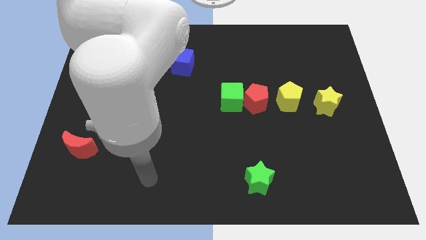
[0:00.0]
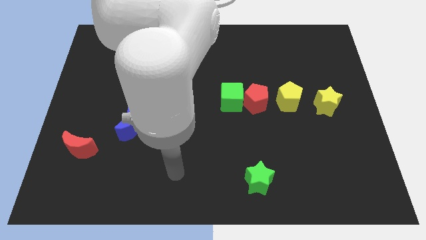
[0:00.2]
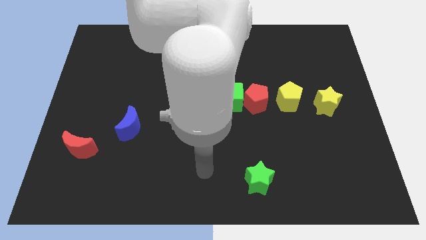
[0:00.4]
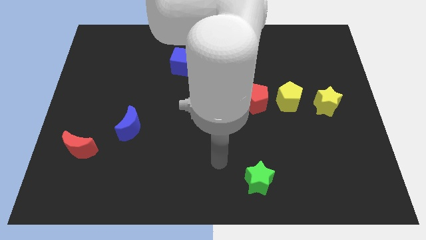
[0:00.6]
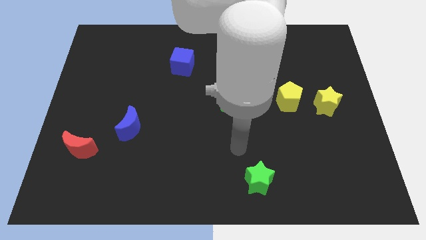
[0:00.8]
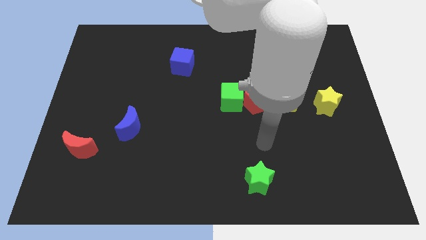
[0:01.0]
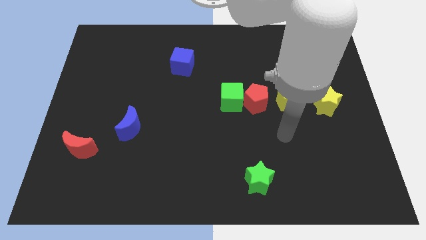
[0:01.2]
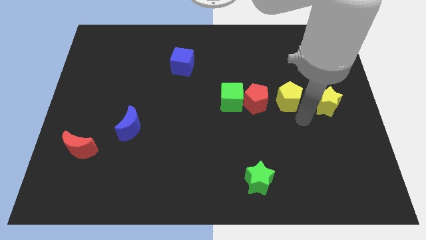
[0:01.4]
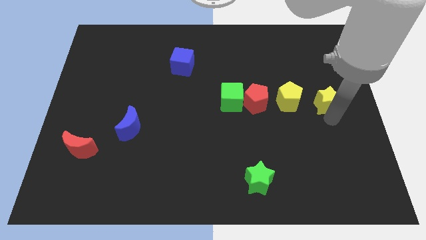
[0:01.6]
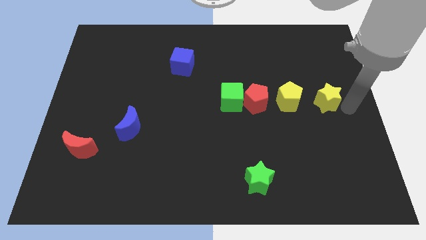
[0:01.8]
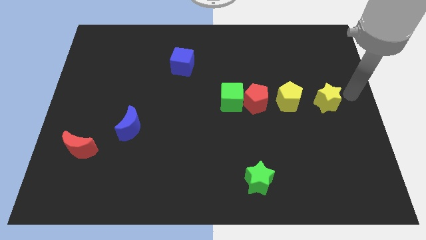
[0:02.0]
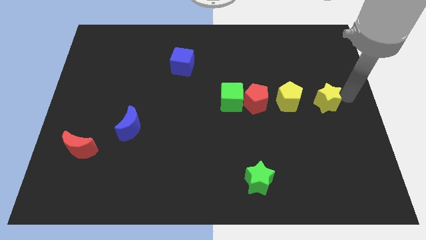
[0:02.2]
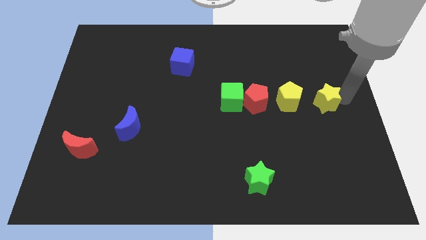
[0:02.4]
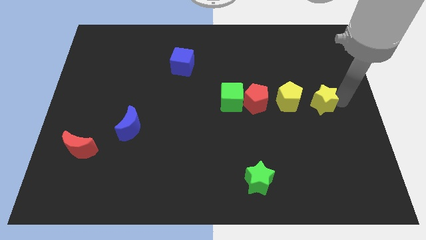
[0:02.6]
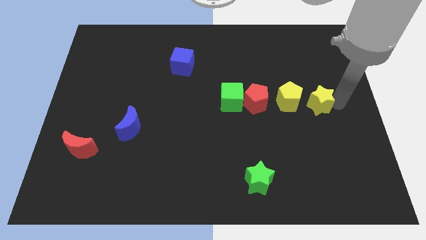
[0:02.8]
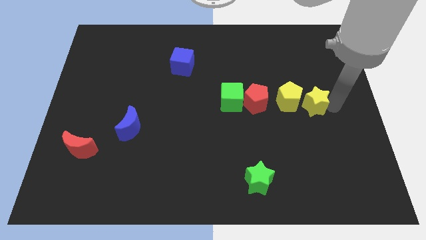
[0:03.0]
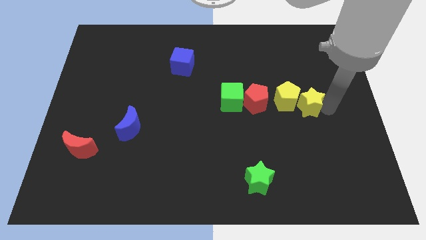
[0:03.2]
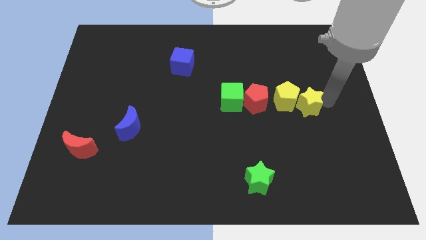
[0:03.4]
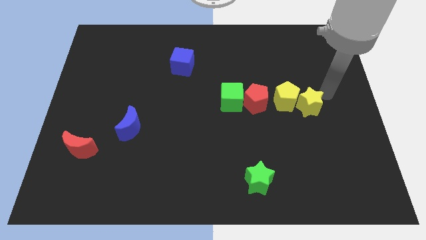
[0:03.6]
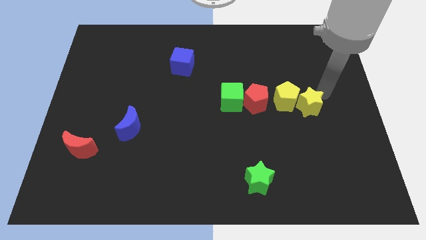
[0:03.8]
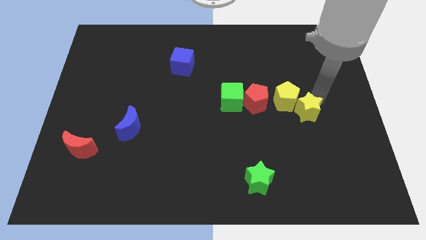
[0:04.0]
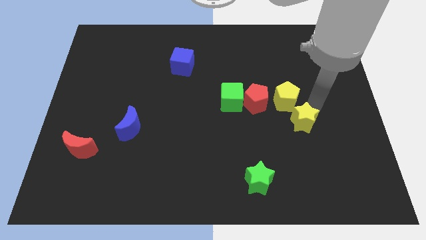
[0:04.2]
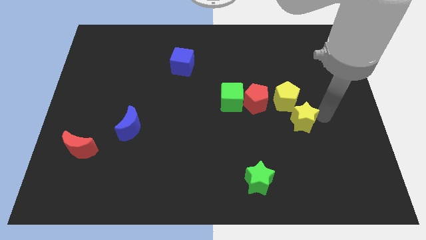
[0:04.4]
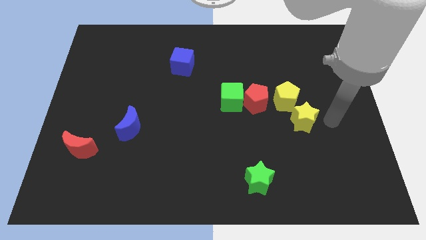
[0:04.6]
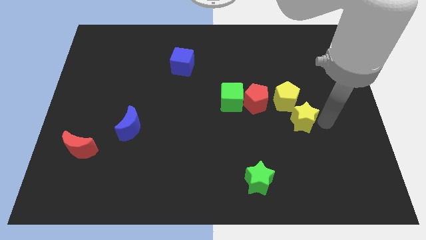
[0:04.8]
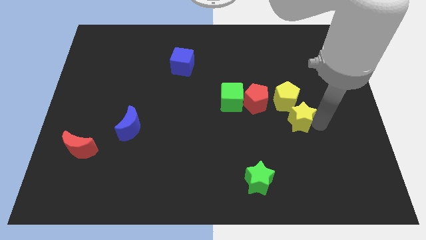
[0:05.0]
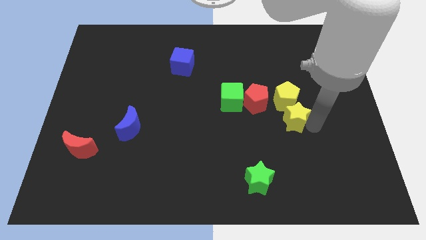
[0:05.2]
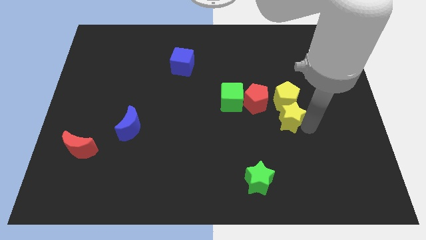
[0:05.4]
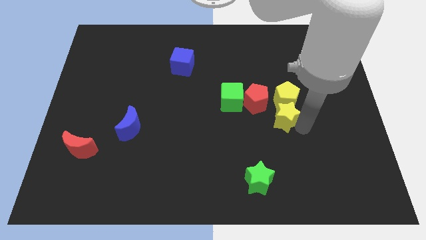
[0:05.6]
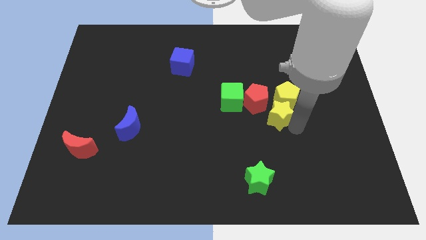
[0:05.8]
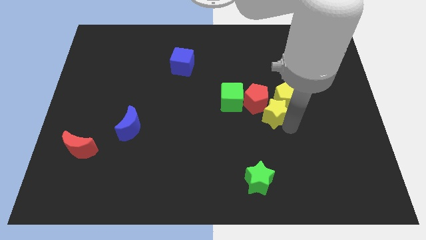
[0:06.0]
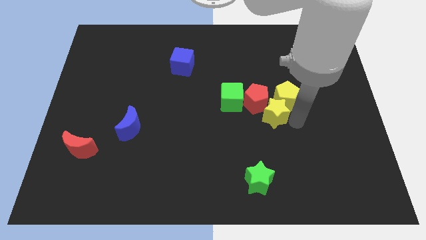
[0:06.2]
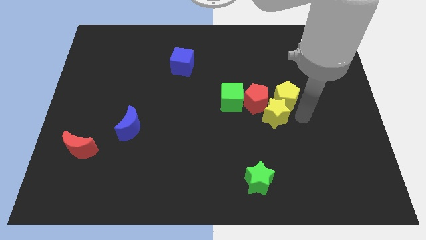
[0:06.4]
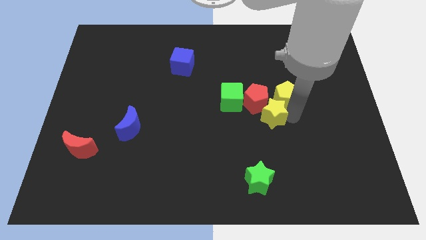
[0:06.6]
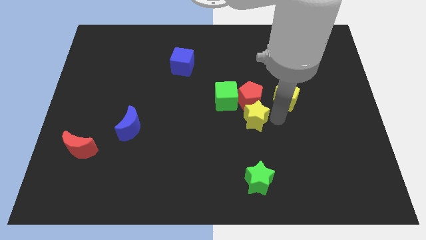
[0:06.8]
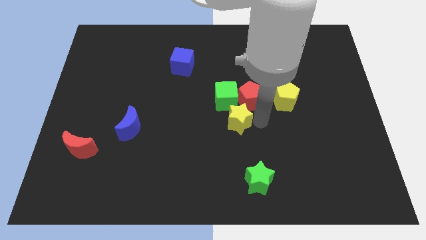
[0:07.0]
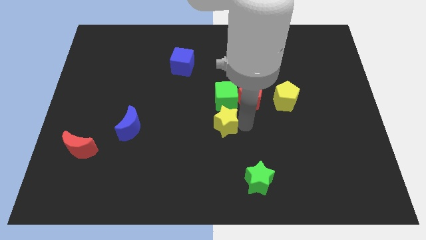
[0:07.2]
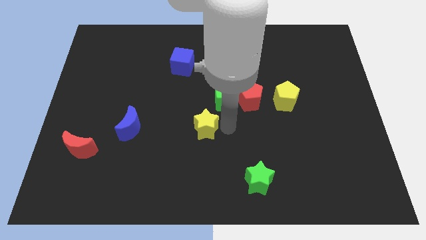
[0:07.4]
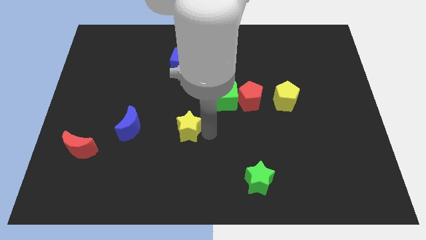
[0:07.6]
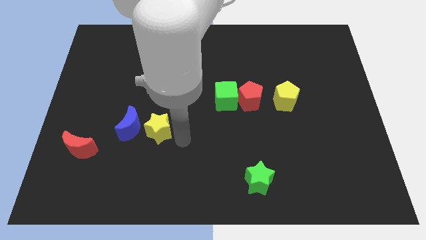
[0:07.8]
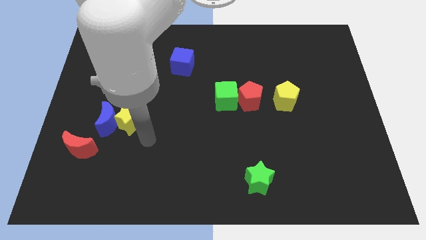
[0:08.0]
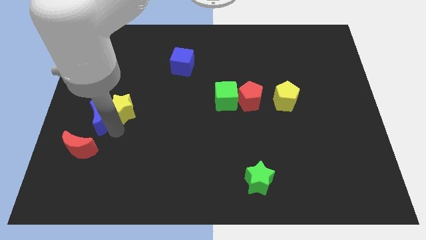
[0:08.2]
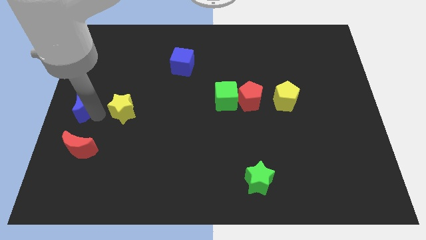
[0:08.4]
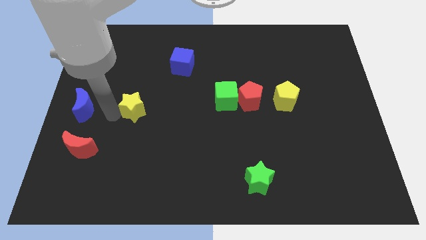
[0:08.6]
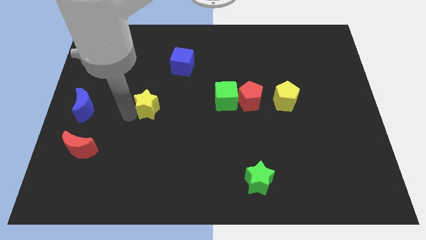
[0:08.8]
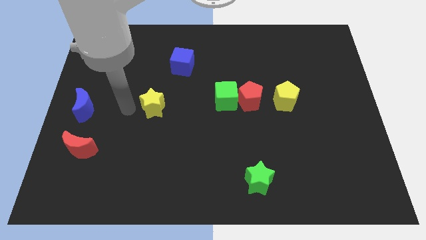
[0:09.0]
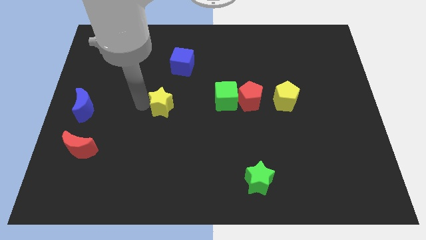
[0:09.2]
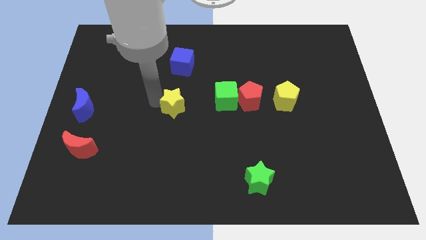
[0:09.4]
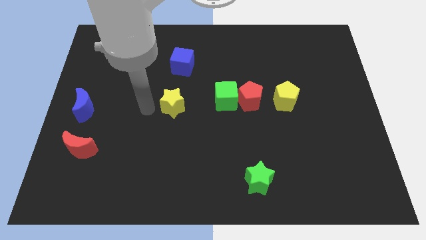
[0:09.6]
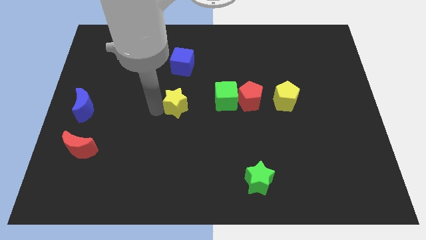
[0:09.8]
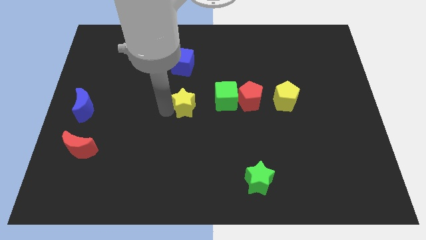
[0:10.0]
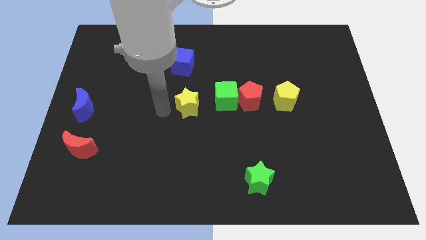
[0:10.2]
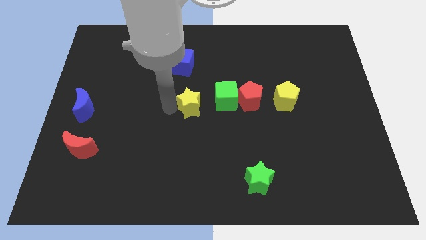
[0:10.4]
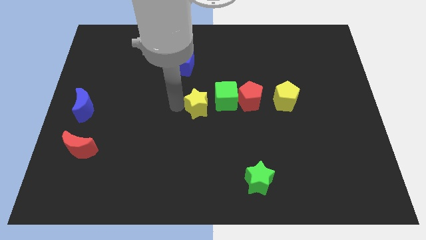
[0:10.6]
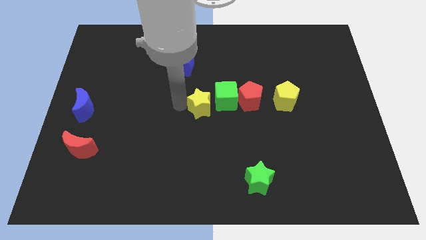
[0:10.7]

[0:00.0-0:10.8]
move the yellow star next to the green cube

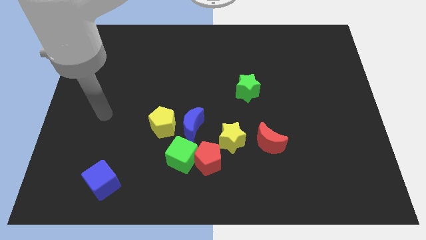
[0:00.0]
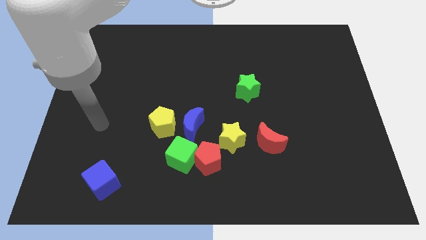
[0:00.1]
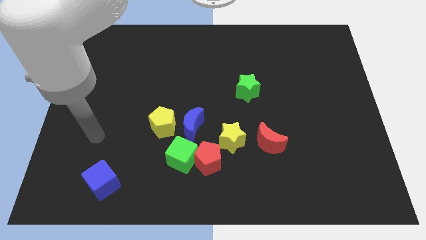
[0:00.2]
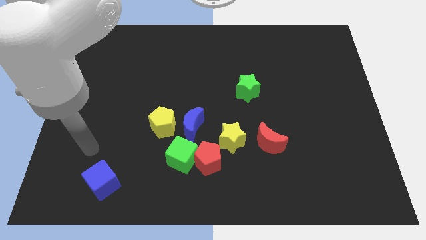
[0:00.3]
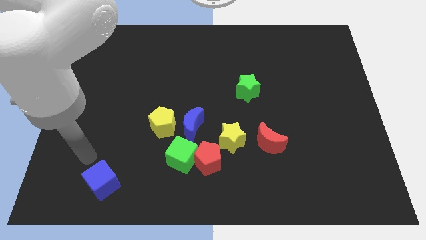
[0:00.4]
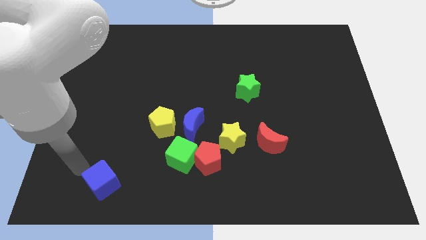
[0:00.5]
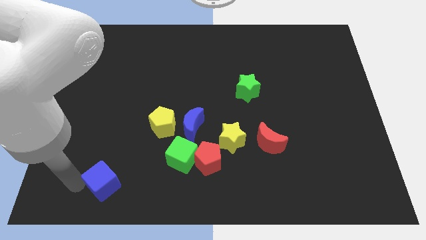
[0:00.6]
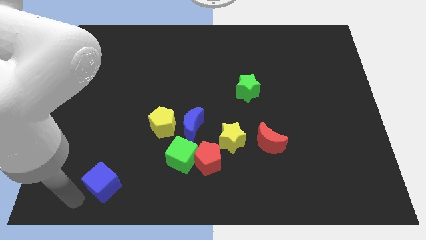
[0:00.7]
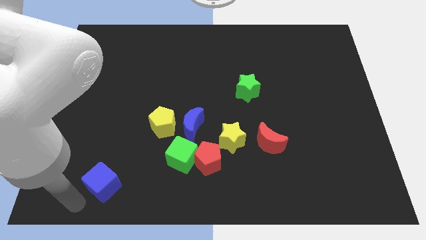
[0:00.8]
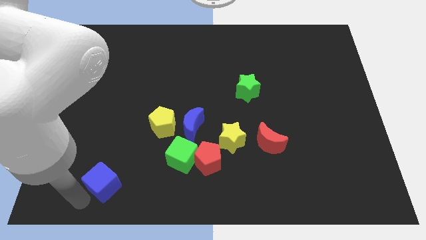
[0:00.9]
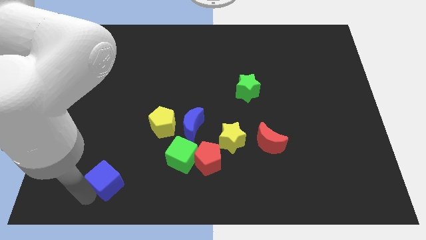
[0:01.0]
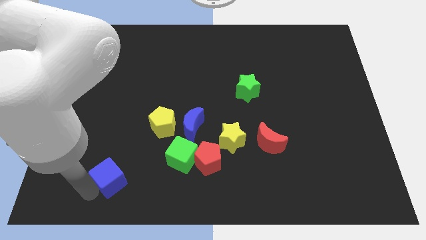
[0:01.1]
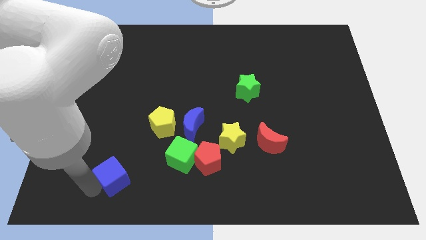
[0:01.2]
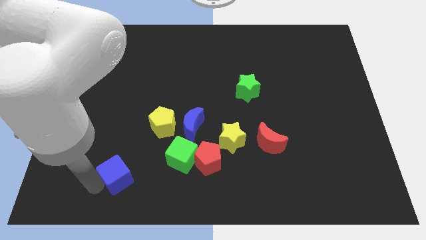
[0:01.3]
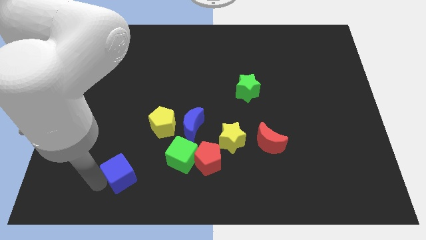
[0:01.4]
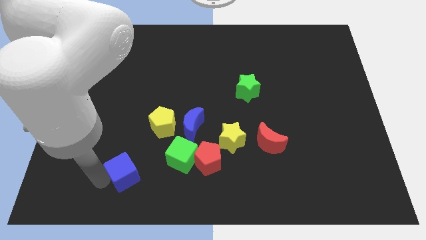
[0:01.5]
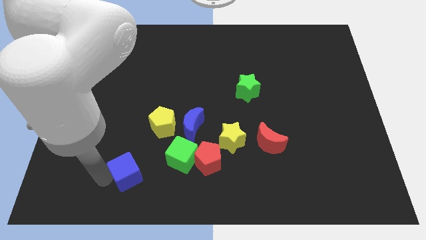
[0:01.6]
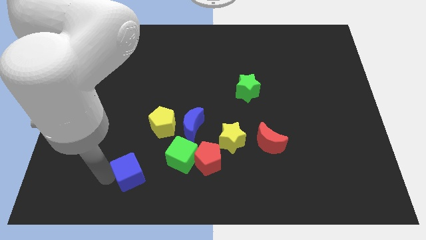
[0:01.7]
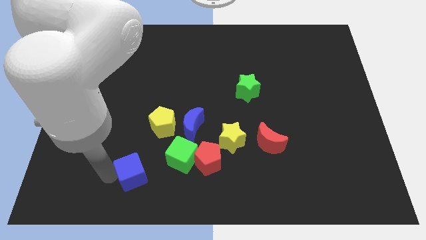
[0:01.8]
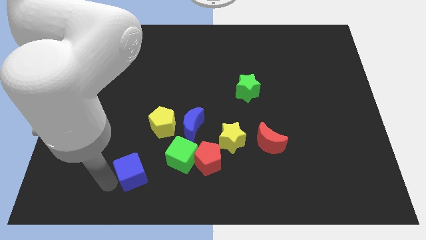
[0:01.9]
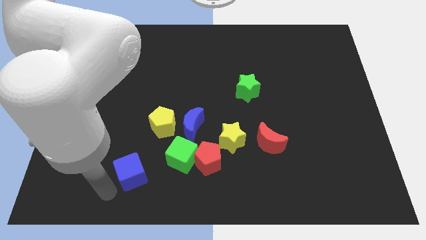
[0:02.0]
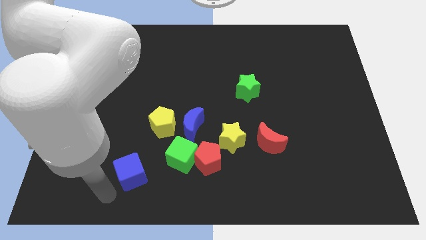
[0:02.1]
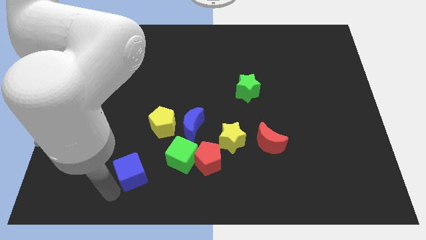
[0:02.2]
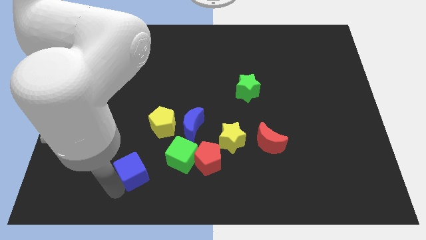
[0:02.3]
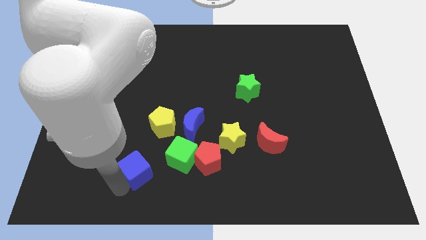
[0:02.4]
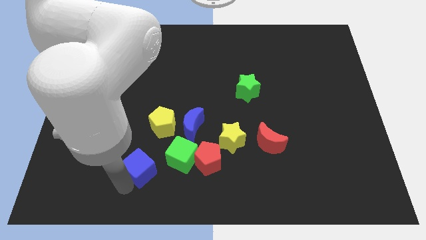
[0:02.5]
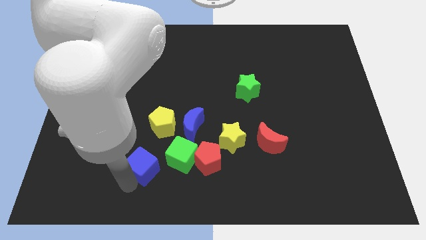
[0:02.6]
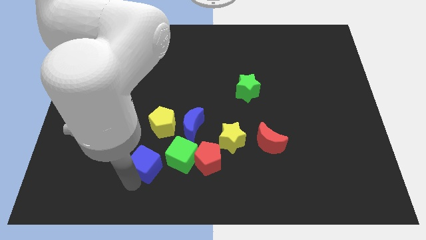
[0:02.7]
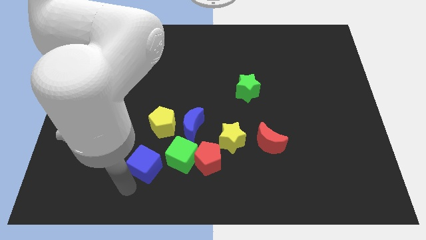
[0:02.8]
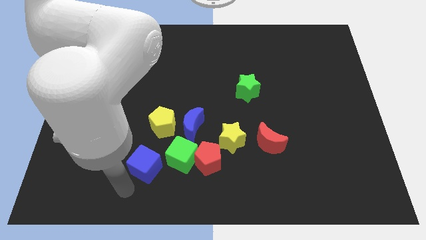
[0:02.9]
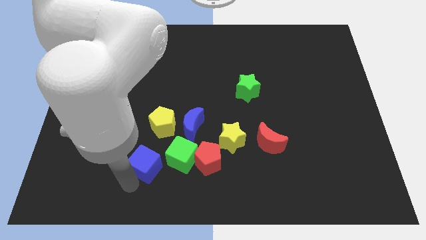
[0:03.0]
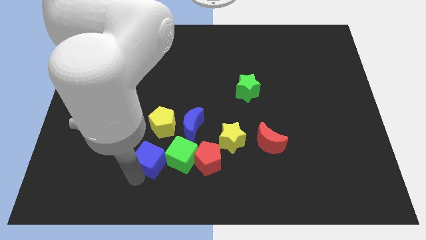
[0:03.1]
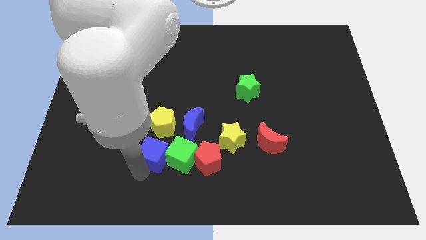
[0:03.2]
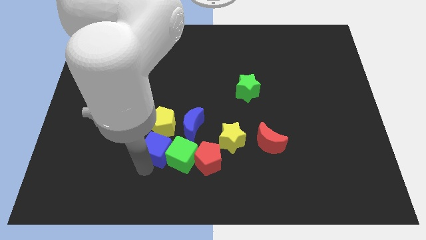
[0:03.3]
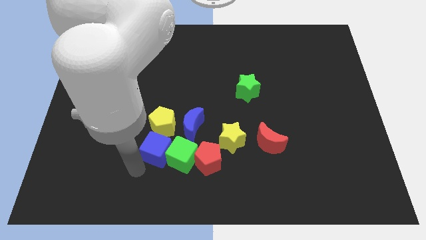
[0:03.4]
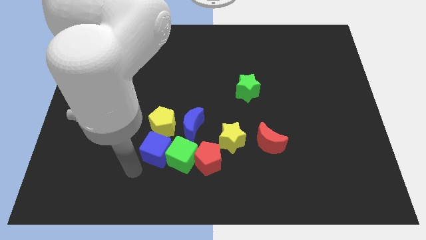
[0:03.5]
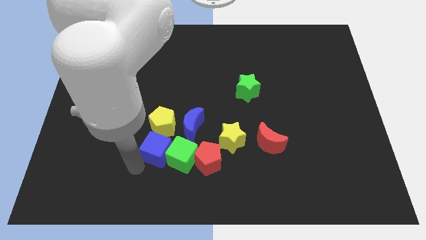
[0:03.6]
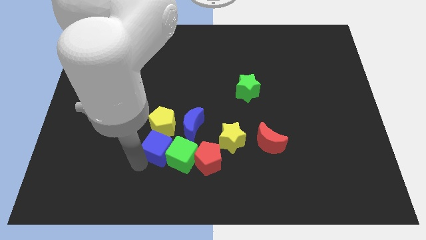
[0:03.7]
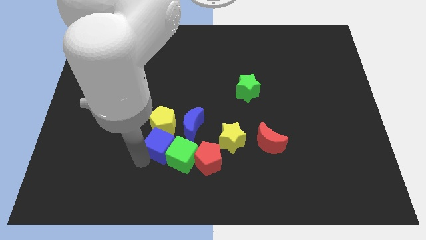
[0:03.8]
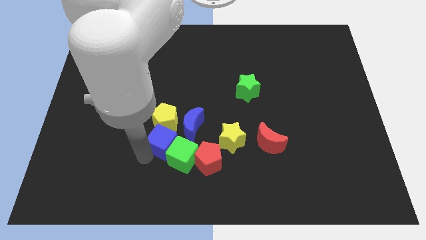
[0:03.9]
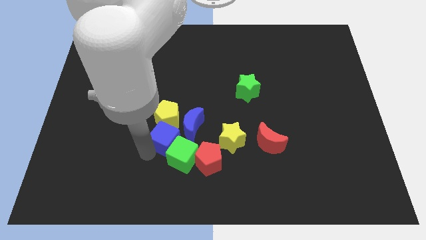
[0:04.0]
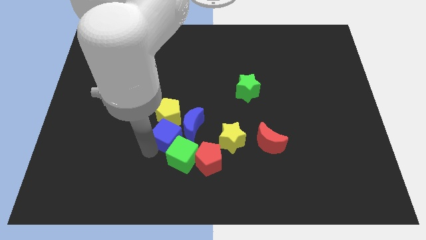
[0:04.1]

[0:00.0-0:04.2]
put the blue cube towards the blue moon
